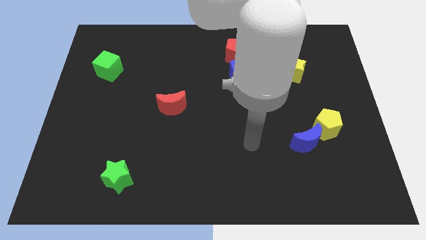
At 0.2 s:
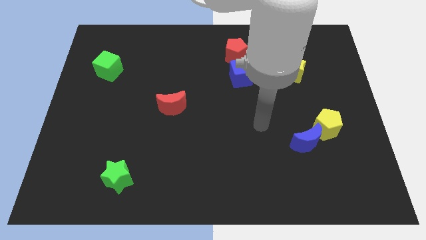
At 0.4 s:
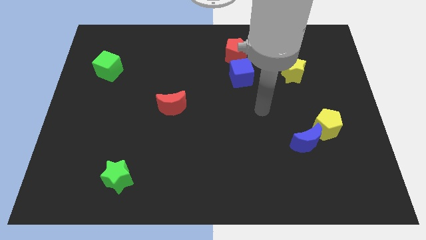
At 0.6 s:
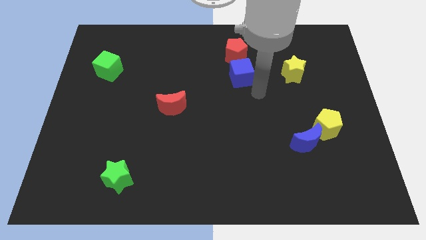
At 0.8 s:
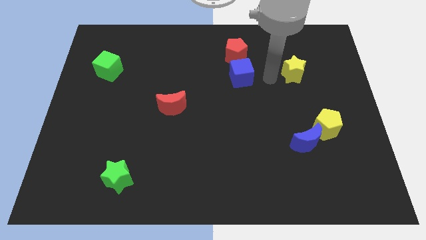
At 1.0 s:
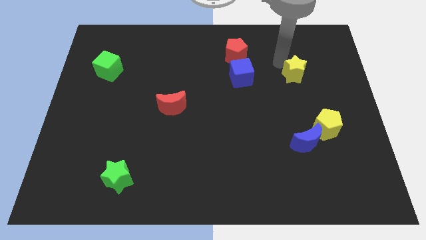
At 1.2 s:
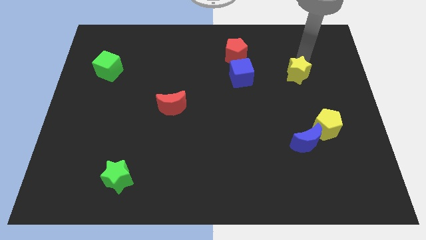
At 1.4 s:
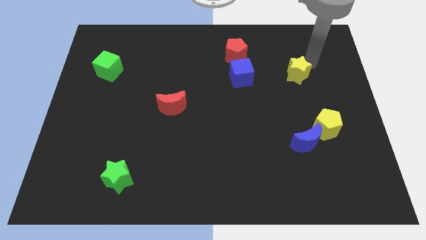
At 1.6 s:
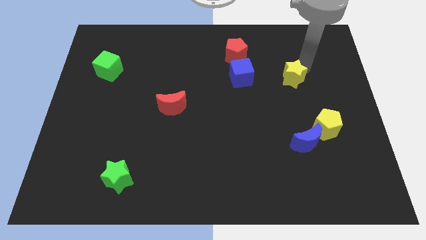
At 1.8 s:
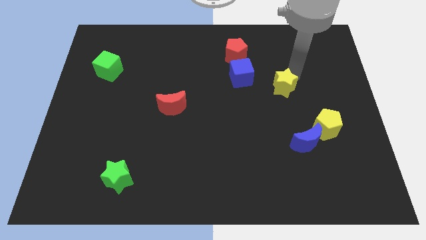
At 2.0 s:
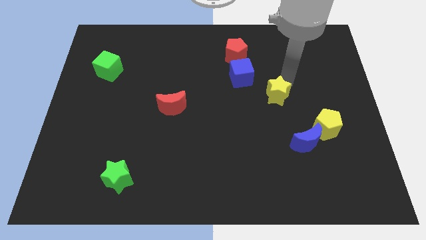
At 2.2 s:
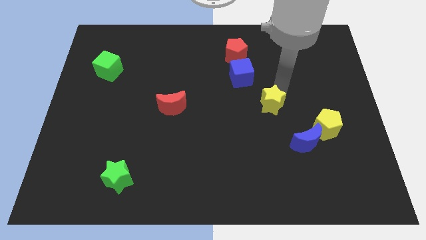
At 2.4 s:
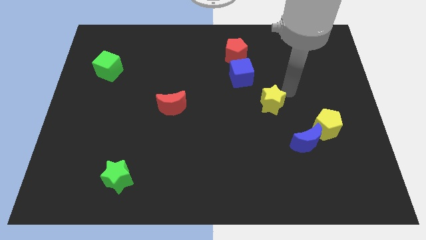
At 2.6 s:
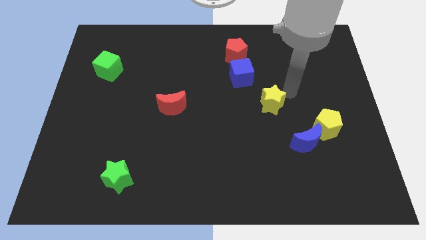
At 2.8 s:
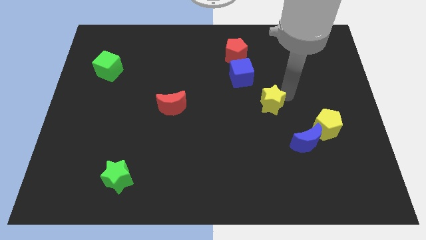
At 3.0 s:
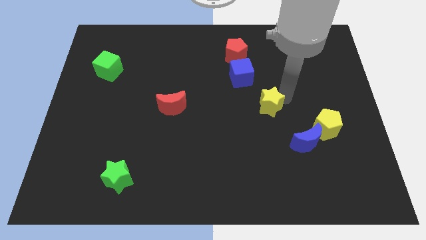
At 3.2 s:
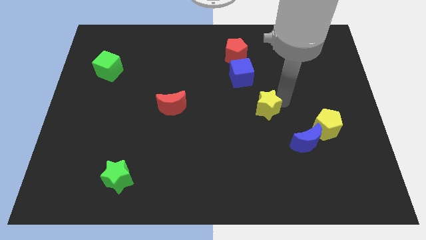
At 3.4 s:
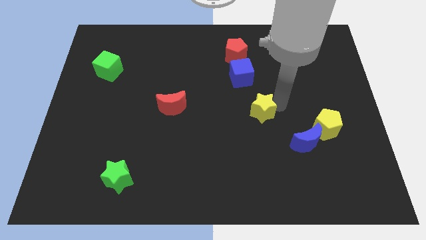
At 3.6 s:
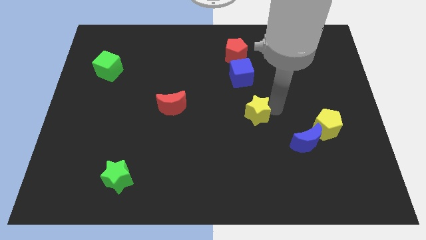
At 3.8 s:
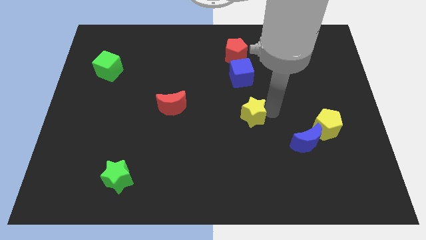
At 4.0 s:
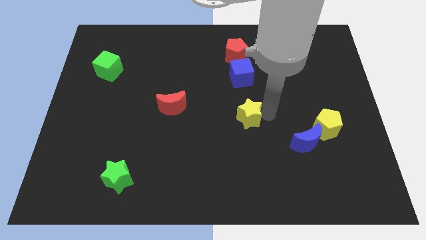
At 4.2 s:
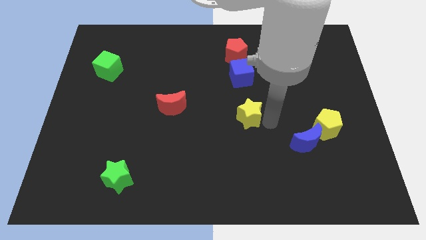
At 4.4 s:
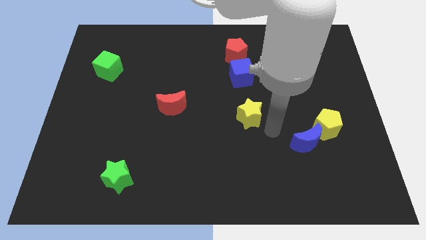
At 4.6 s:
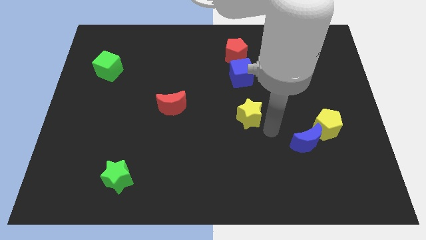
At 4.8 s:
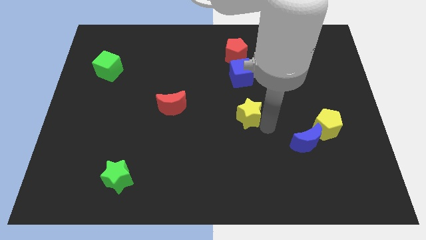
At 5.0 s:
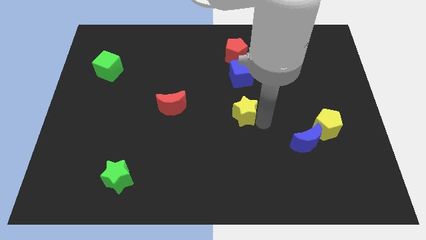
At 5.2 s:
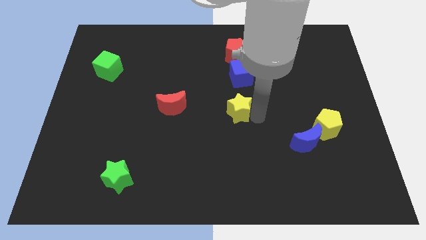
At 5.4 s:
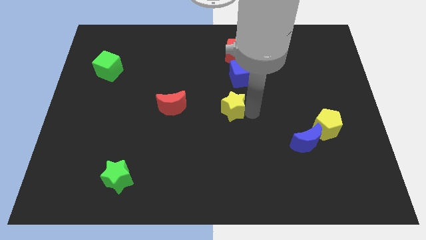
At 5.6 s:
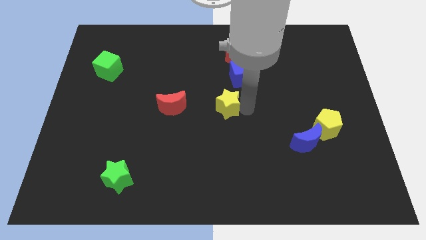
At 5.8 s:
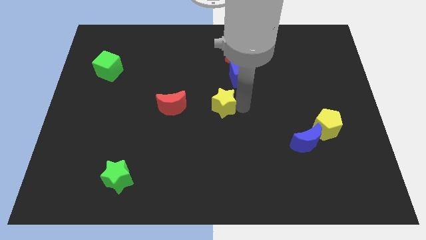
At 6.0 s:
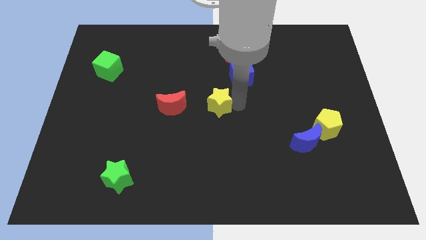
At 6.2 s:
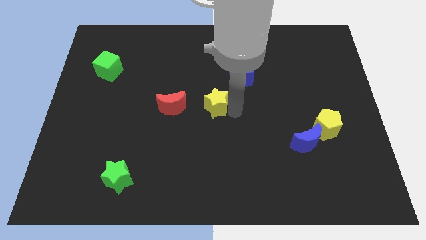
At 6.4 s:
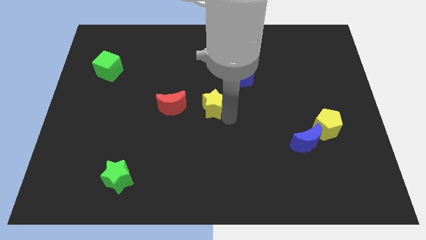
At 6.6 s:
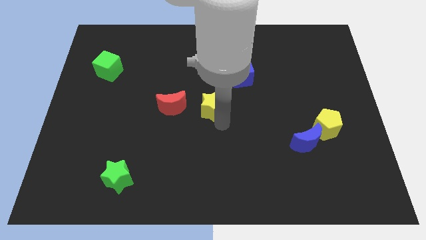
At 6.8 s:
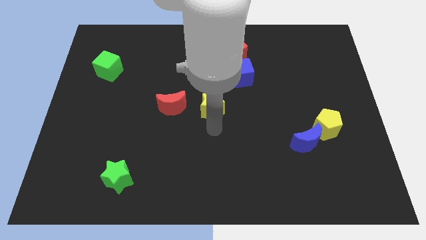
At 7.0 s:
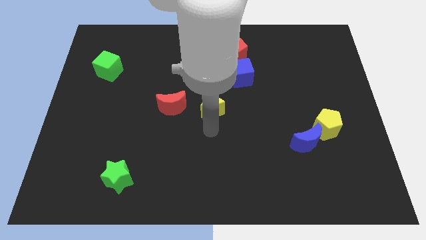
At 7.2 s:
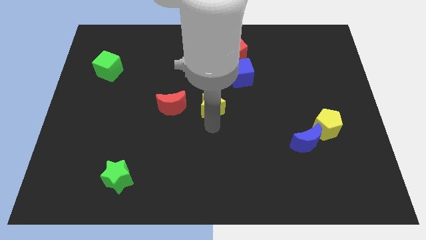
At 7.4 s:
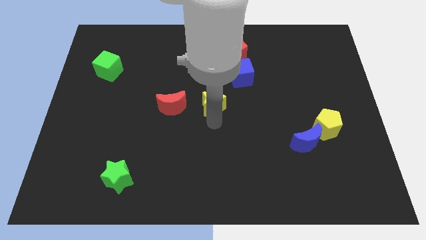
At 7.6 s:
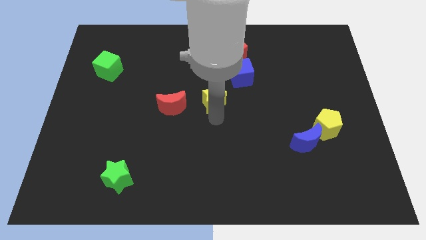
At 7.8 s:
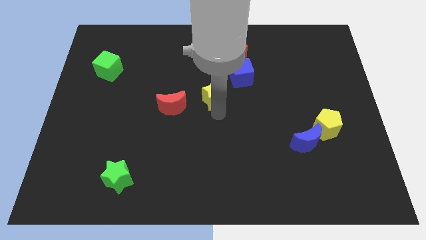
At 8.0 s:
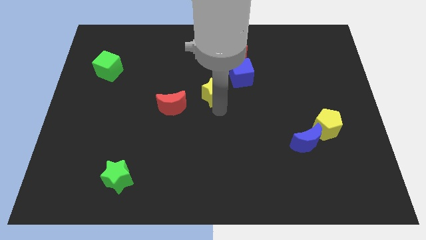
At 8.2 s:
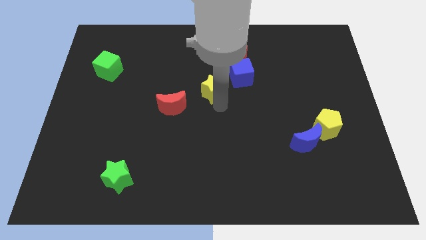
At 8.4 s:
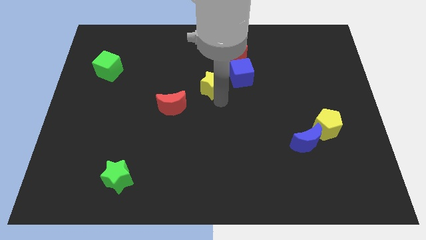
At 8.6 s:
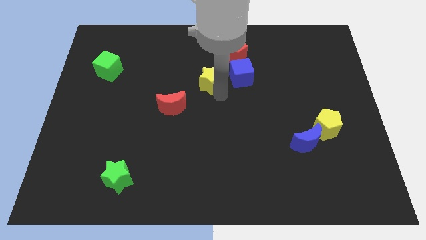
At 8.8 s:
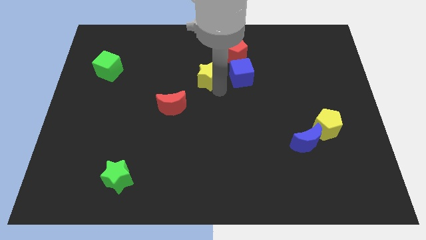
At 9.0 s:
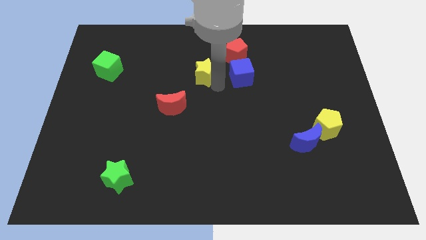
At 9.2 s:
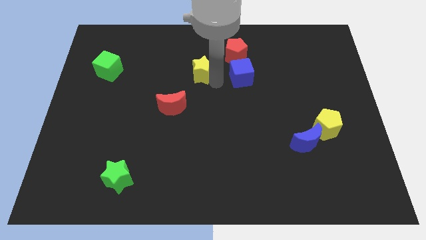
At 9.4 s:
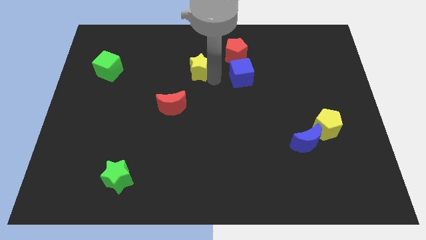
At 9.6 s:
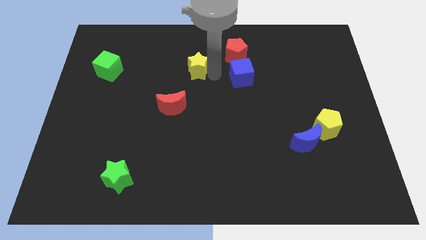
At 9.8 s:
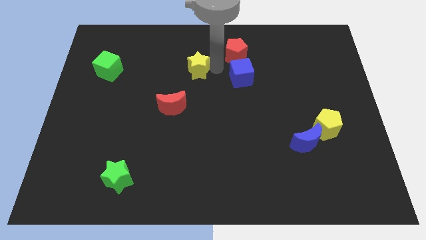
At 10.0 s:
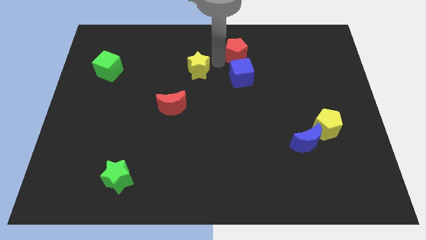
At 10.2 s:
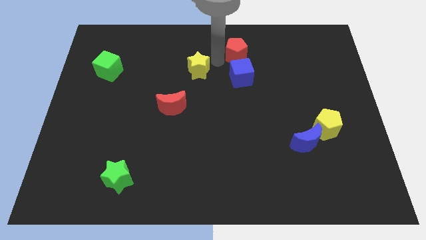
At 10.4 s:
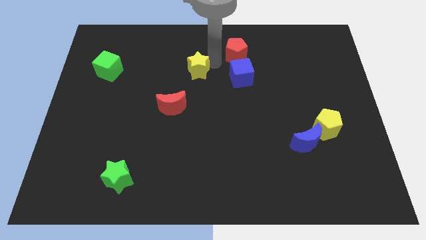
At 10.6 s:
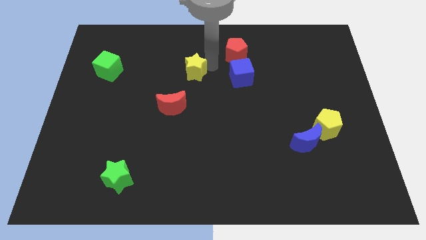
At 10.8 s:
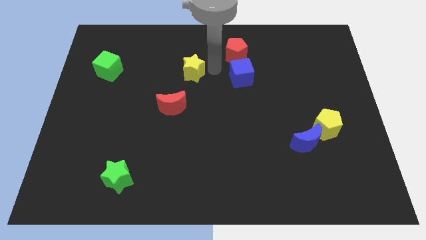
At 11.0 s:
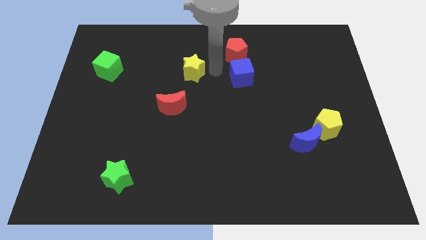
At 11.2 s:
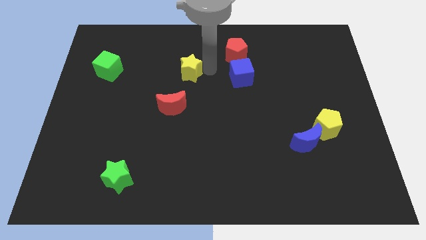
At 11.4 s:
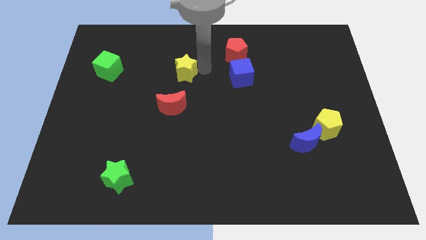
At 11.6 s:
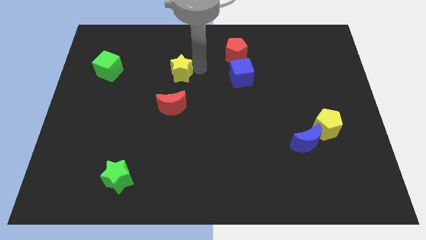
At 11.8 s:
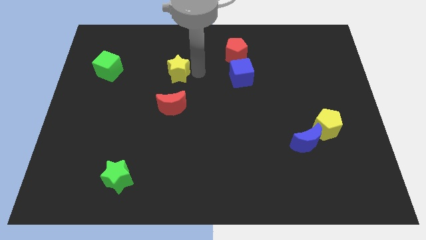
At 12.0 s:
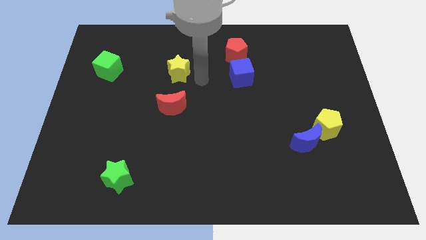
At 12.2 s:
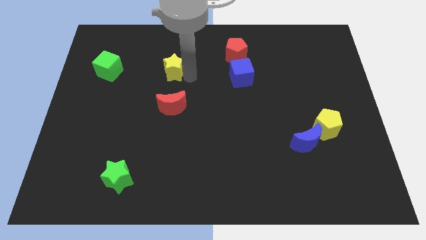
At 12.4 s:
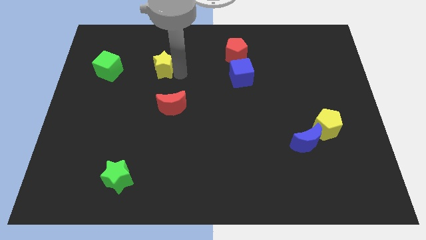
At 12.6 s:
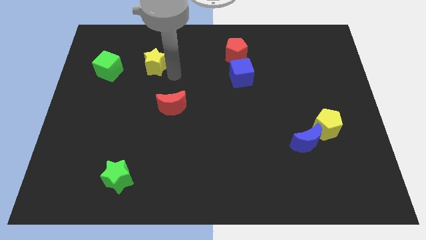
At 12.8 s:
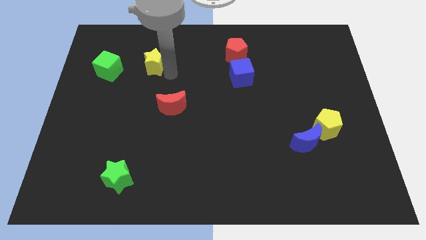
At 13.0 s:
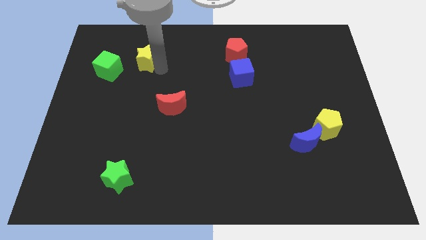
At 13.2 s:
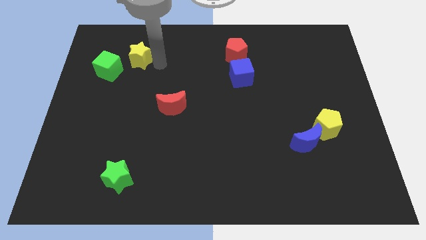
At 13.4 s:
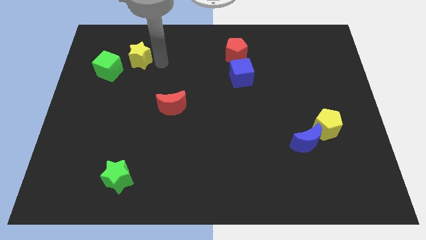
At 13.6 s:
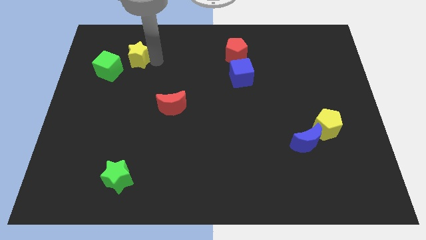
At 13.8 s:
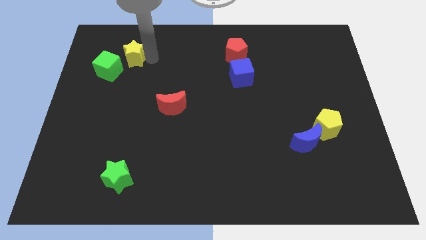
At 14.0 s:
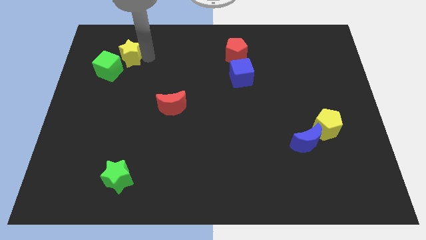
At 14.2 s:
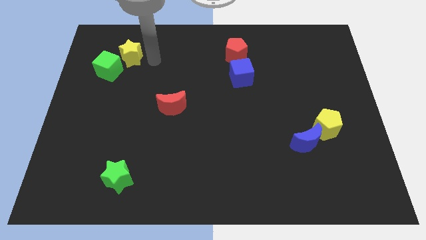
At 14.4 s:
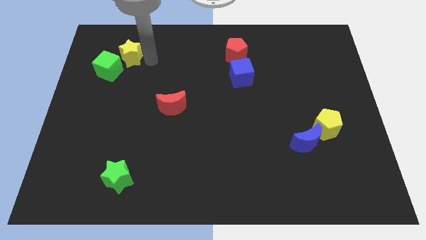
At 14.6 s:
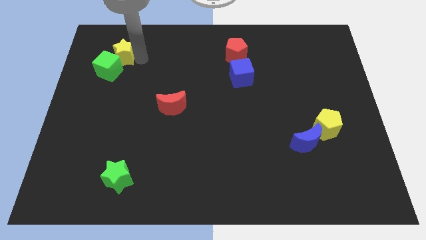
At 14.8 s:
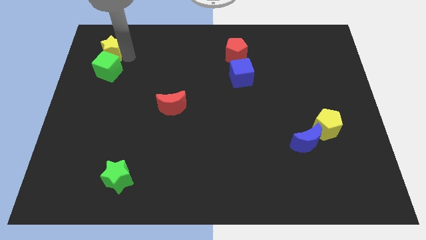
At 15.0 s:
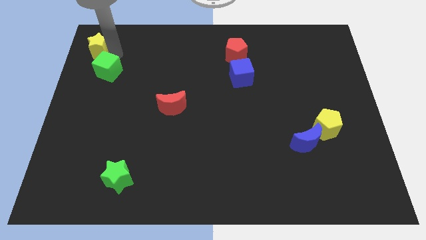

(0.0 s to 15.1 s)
move the yellow star to the upper left corner
